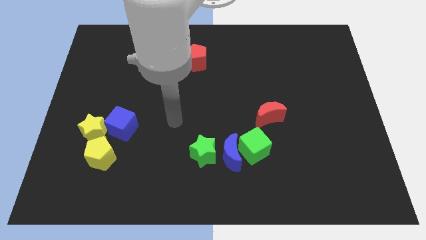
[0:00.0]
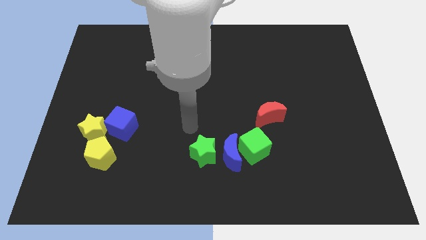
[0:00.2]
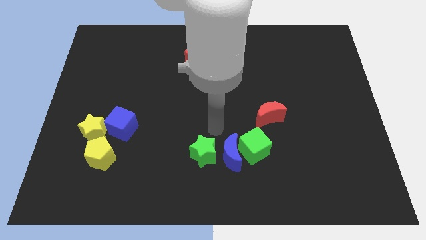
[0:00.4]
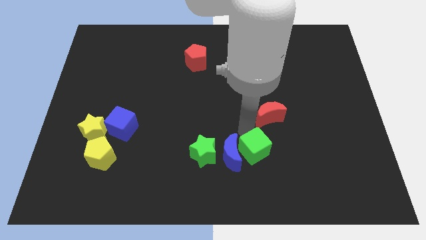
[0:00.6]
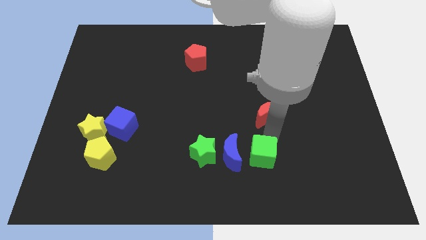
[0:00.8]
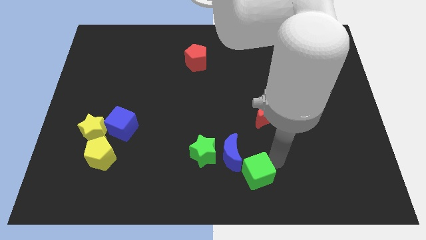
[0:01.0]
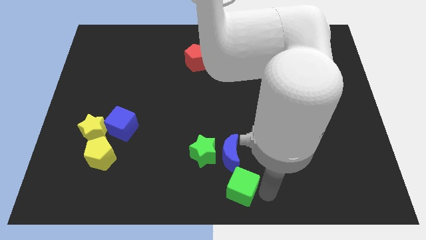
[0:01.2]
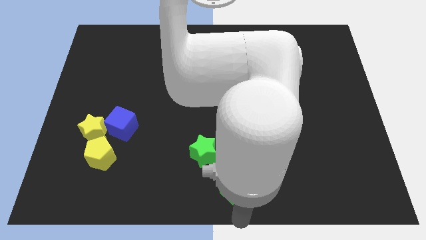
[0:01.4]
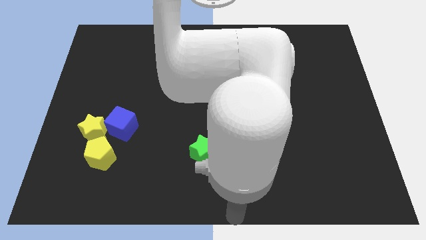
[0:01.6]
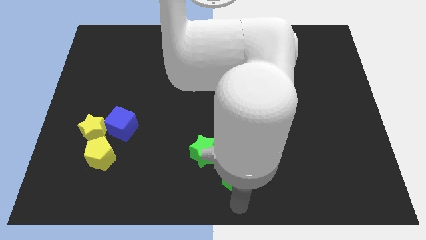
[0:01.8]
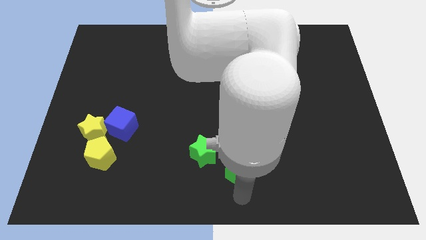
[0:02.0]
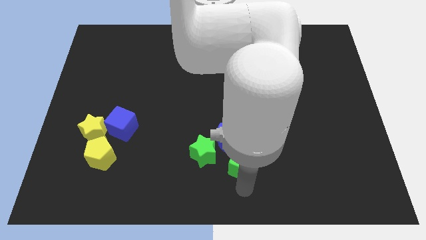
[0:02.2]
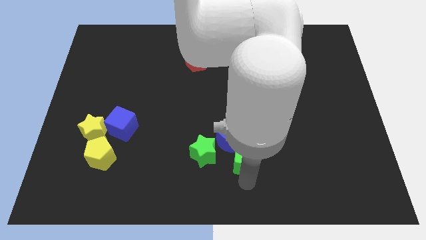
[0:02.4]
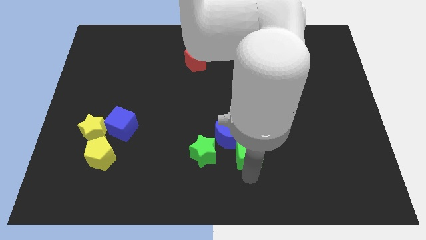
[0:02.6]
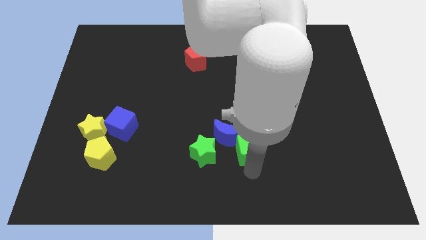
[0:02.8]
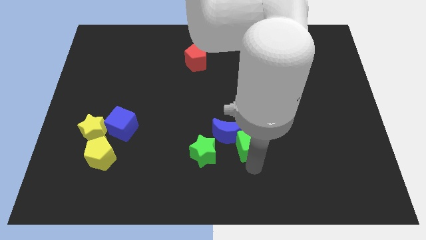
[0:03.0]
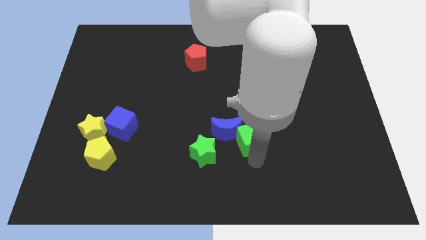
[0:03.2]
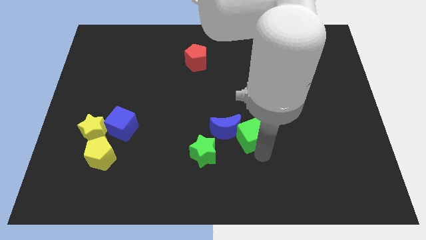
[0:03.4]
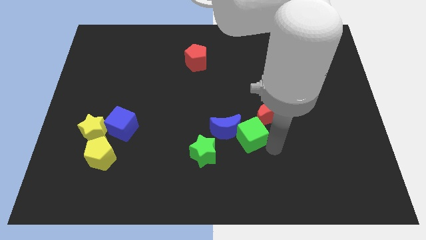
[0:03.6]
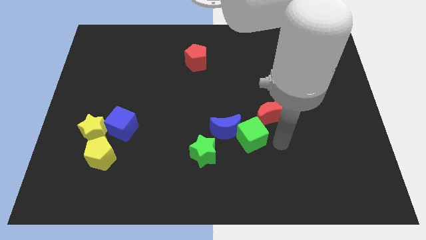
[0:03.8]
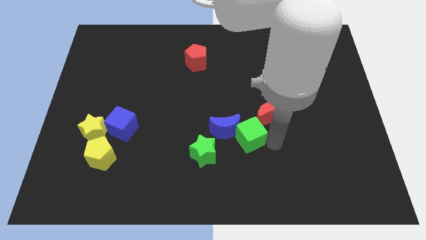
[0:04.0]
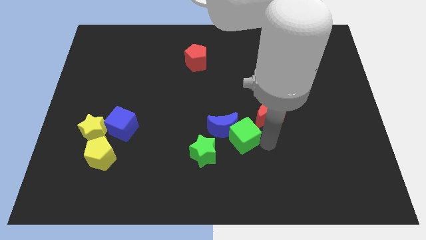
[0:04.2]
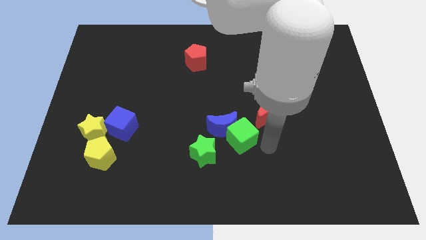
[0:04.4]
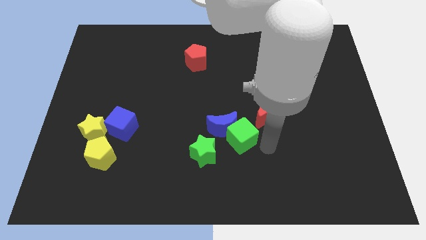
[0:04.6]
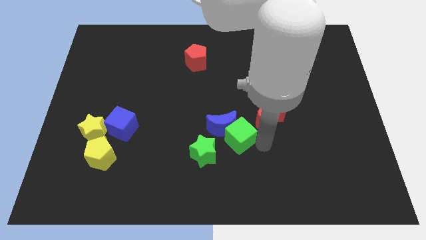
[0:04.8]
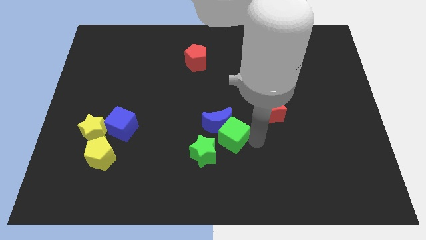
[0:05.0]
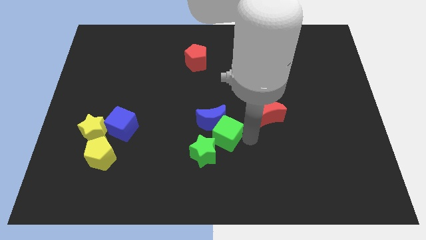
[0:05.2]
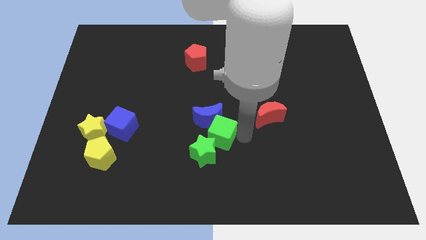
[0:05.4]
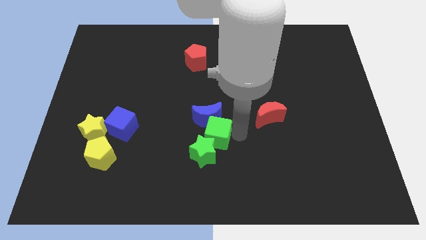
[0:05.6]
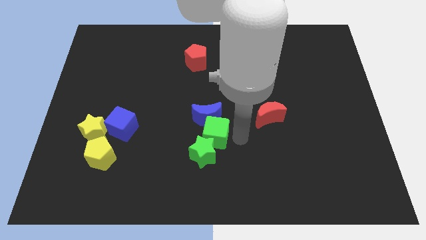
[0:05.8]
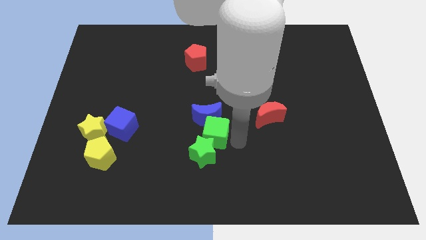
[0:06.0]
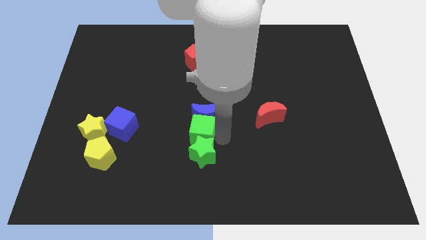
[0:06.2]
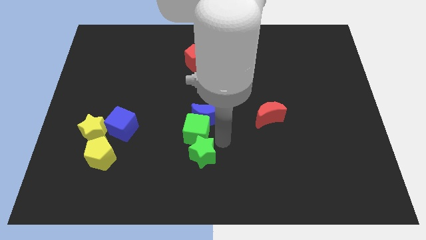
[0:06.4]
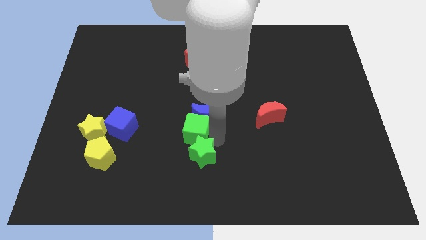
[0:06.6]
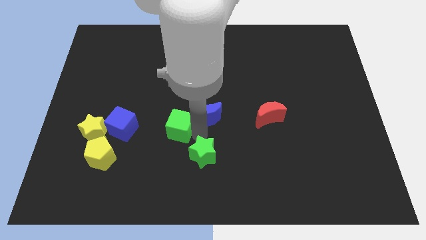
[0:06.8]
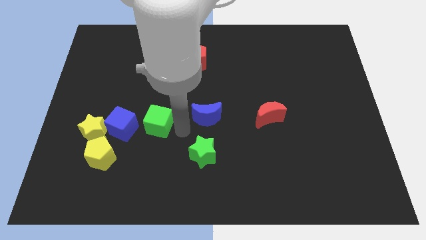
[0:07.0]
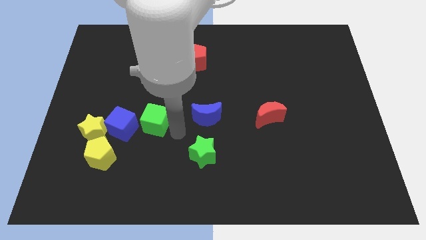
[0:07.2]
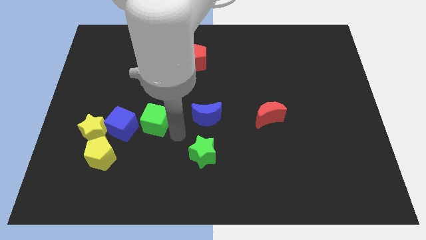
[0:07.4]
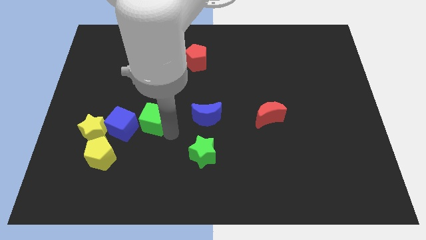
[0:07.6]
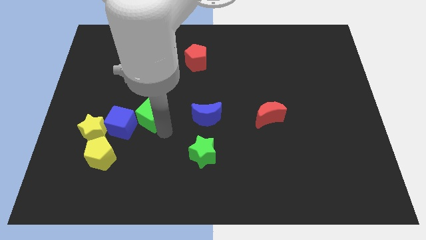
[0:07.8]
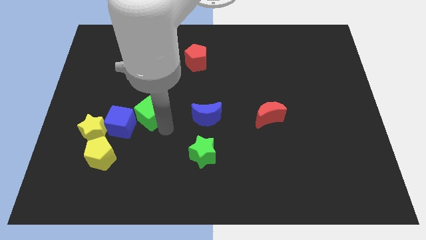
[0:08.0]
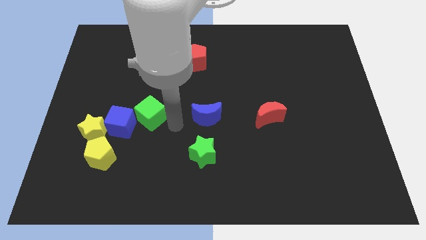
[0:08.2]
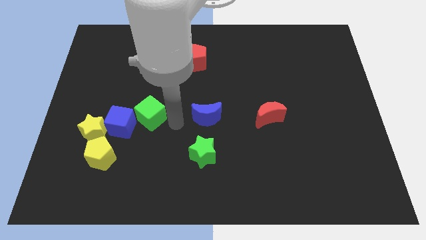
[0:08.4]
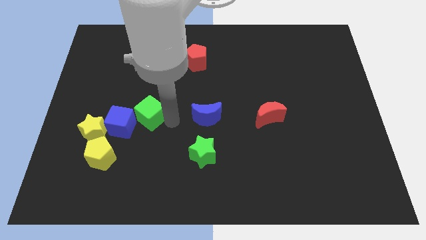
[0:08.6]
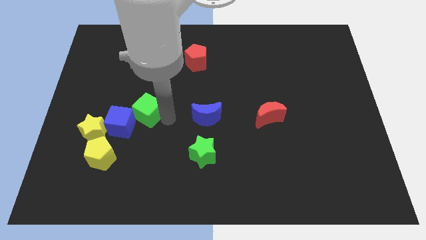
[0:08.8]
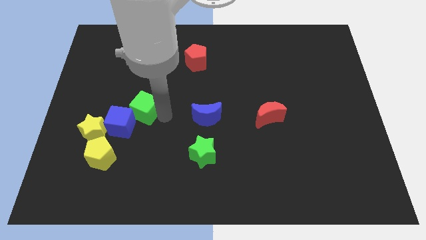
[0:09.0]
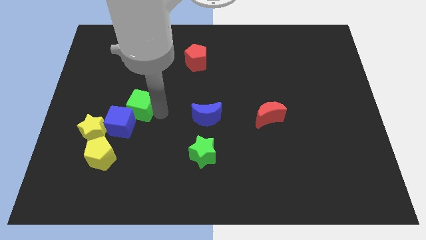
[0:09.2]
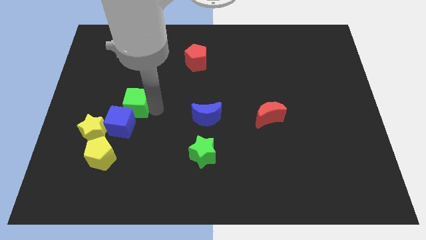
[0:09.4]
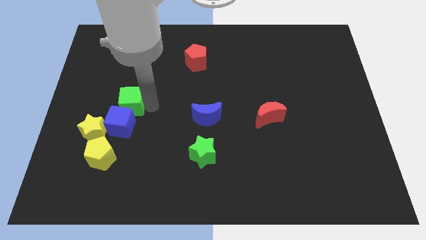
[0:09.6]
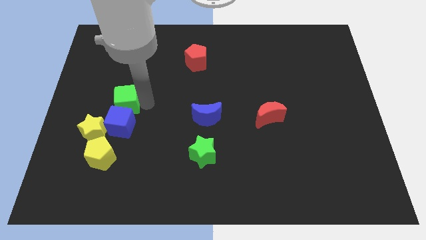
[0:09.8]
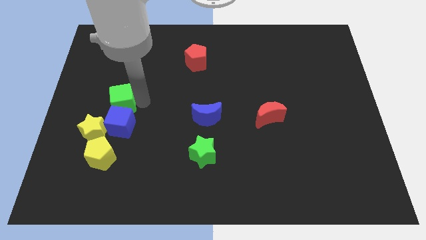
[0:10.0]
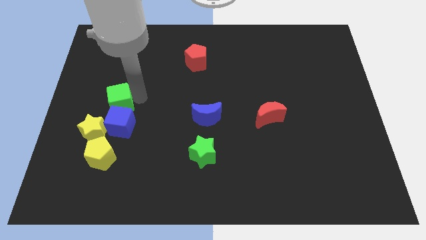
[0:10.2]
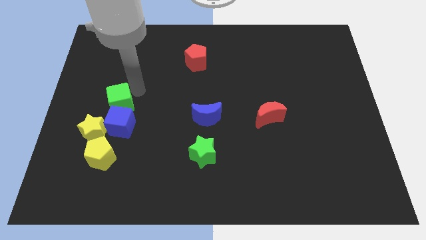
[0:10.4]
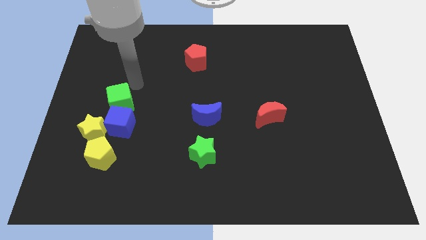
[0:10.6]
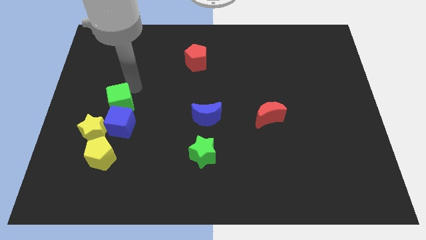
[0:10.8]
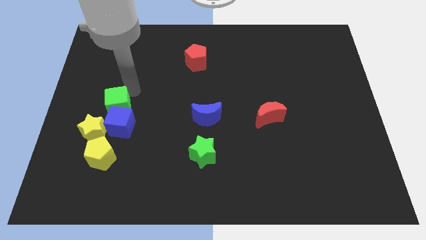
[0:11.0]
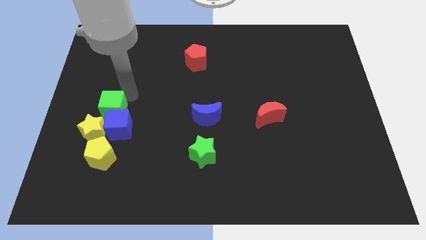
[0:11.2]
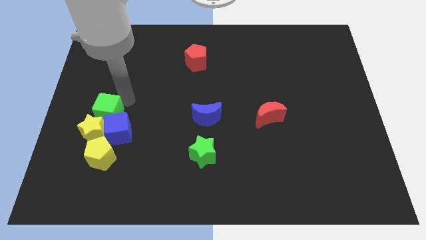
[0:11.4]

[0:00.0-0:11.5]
push the green cube next to the yellow star

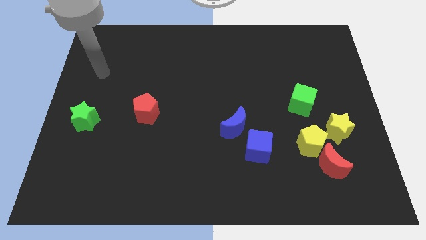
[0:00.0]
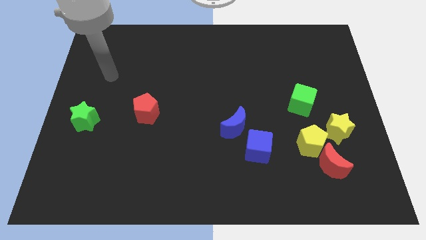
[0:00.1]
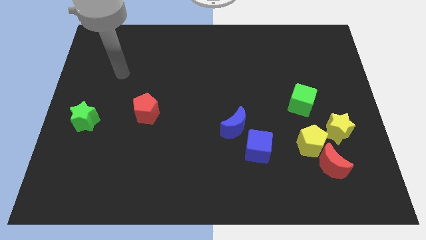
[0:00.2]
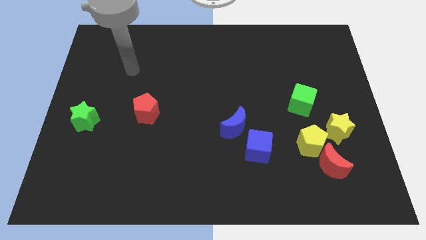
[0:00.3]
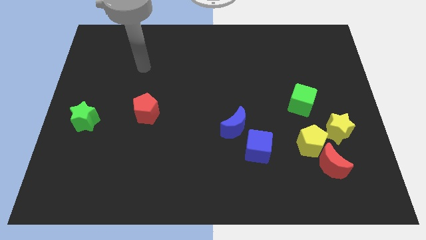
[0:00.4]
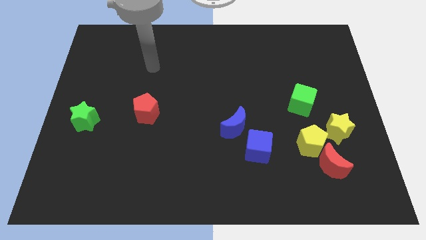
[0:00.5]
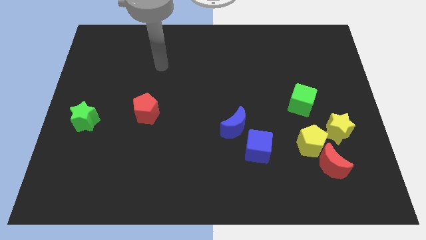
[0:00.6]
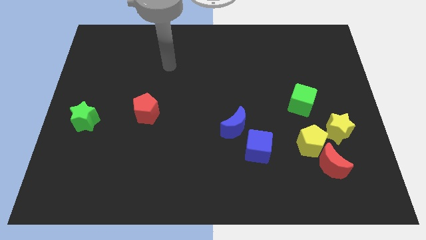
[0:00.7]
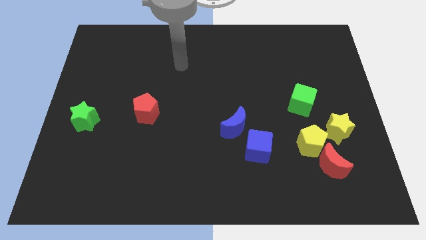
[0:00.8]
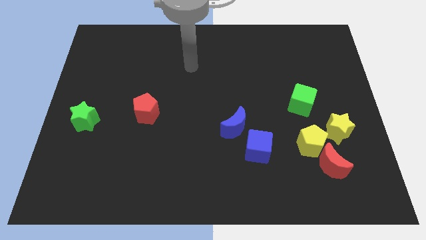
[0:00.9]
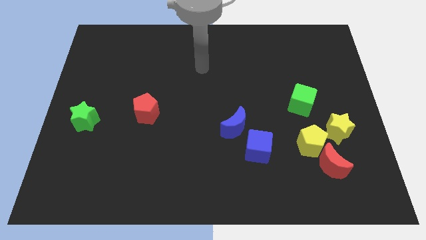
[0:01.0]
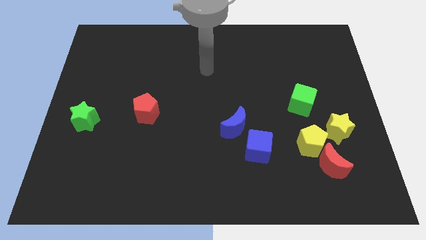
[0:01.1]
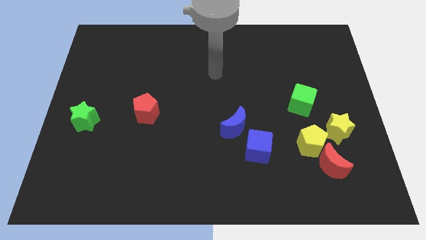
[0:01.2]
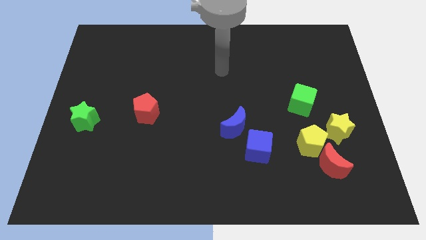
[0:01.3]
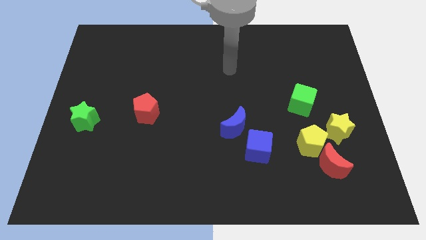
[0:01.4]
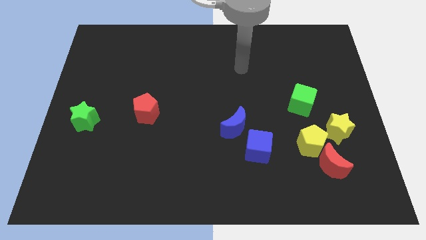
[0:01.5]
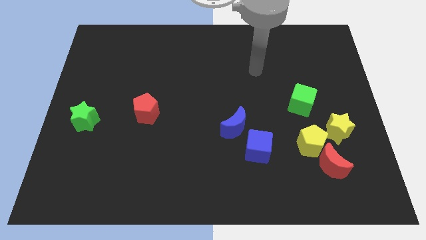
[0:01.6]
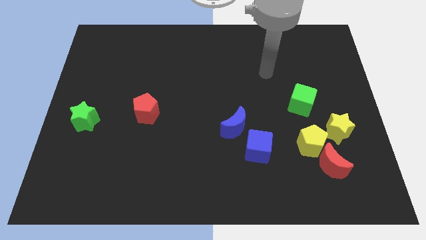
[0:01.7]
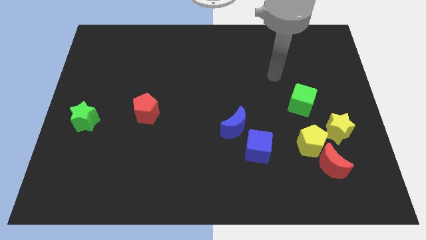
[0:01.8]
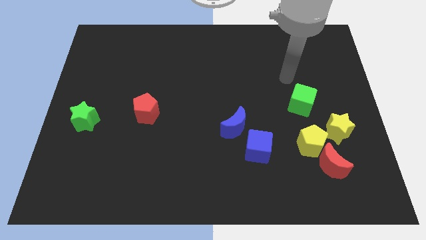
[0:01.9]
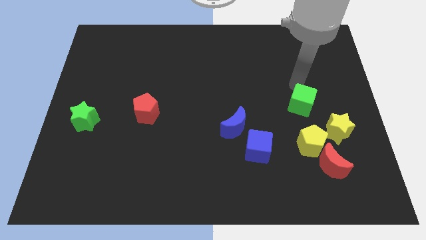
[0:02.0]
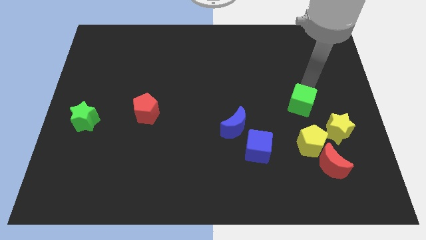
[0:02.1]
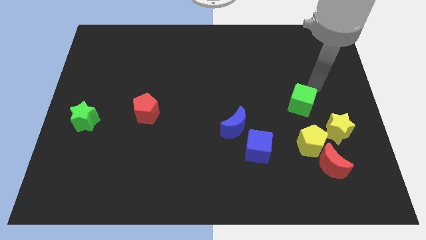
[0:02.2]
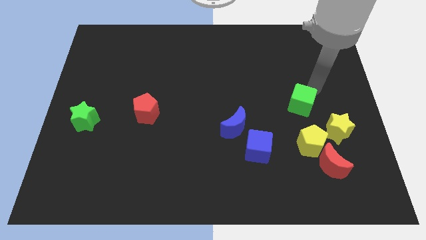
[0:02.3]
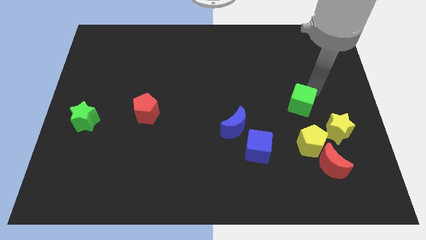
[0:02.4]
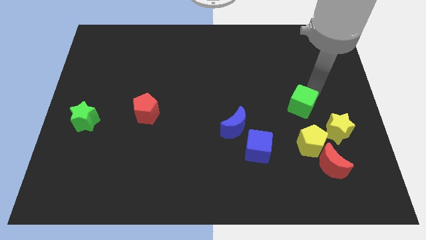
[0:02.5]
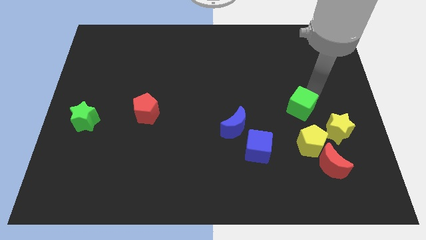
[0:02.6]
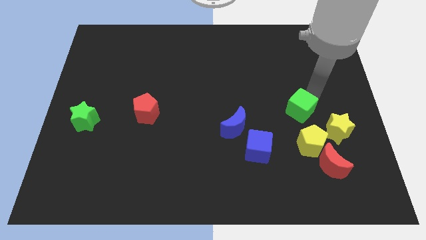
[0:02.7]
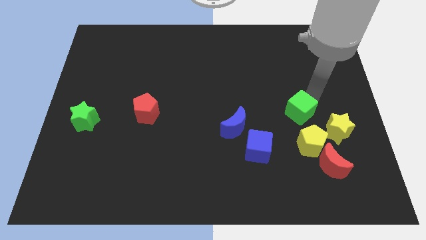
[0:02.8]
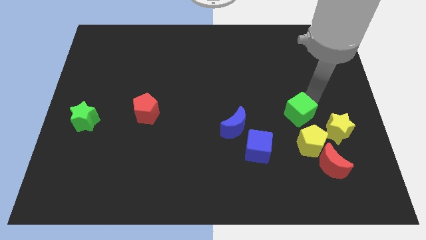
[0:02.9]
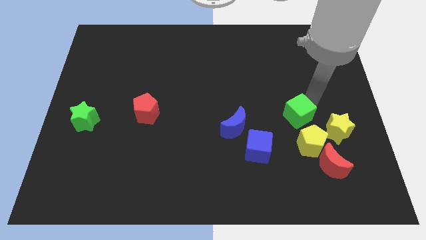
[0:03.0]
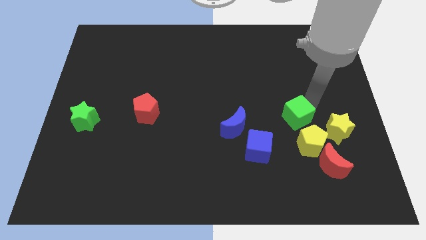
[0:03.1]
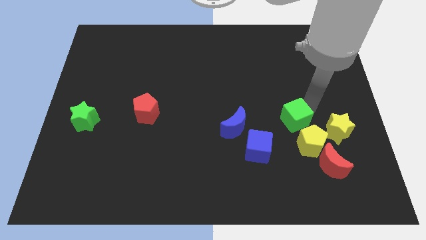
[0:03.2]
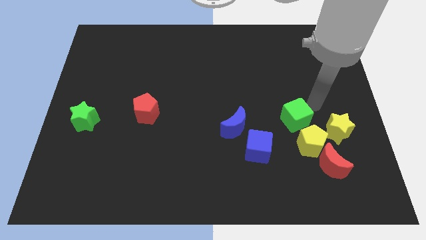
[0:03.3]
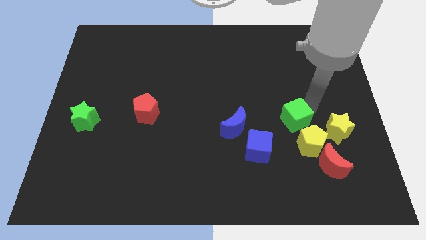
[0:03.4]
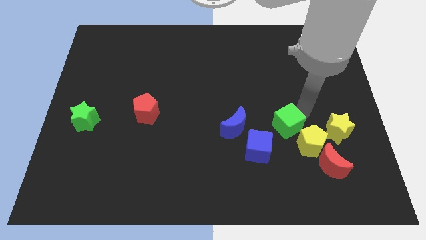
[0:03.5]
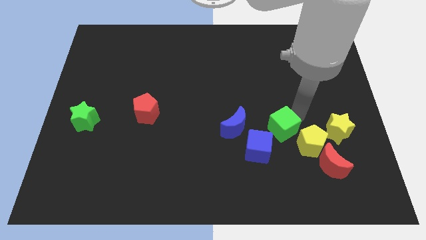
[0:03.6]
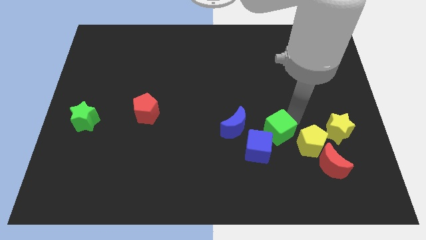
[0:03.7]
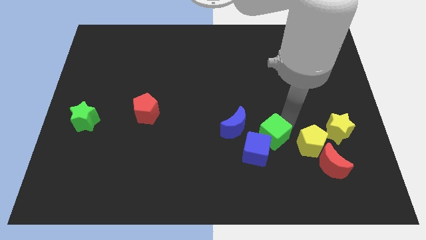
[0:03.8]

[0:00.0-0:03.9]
slide the green cube close to the blue cube
